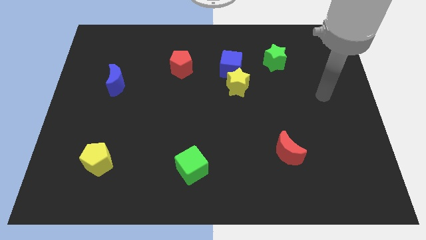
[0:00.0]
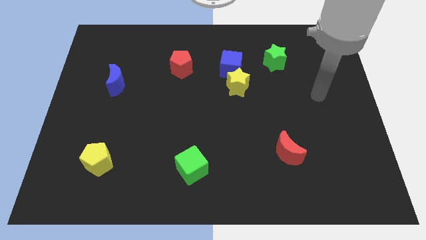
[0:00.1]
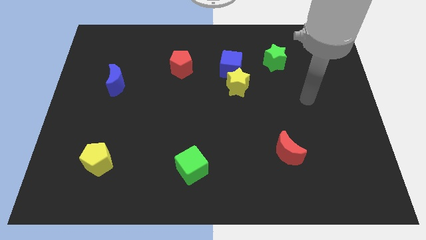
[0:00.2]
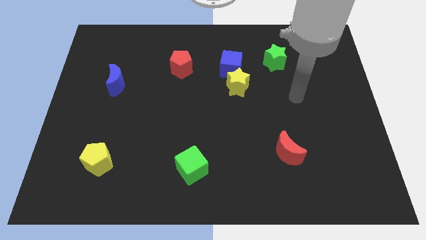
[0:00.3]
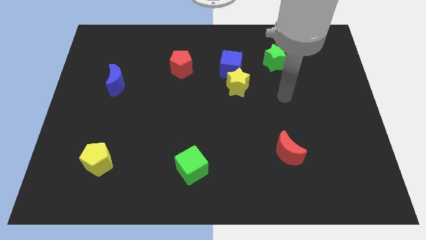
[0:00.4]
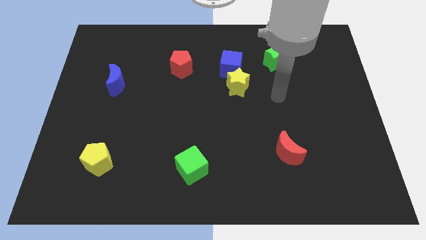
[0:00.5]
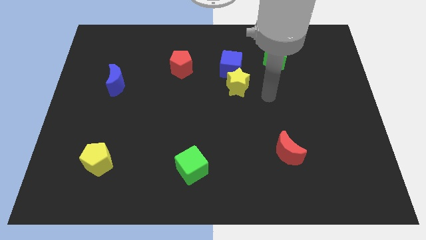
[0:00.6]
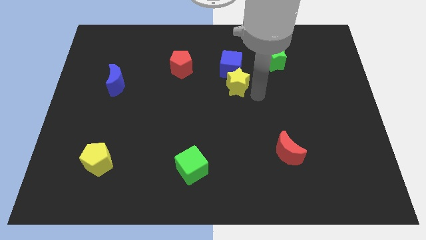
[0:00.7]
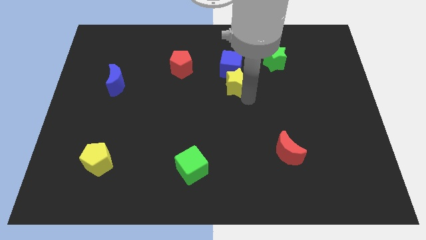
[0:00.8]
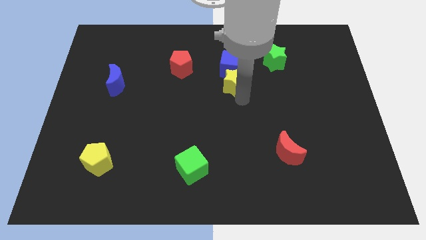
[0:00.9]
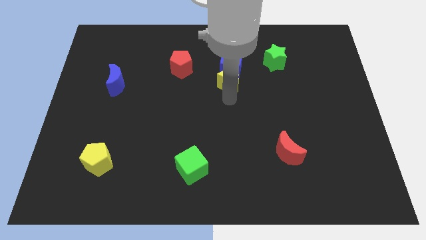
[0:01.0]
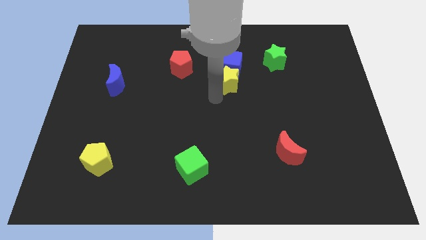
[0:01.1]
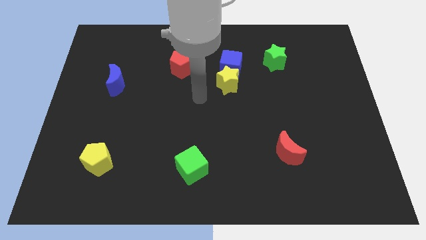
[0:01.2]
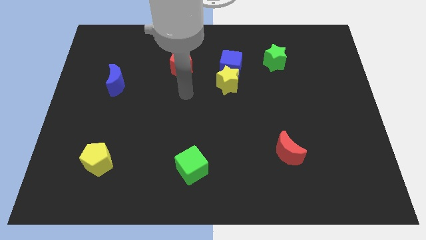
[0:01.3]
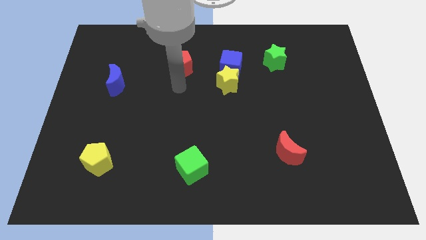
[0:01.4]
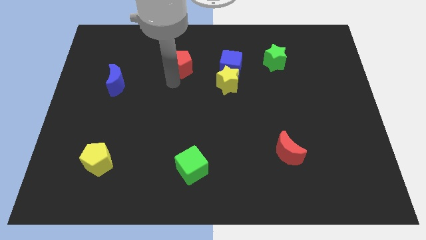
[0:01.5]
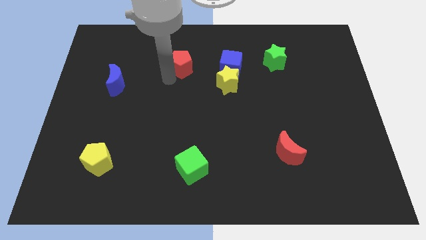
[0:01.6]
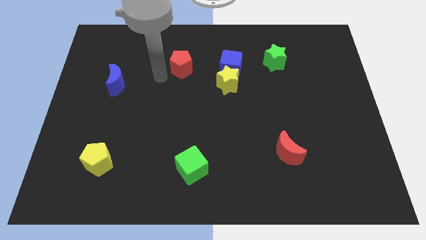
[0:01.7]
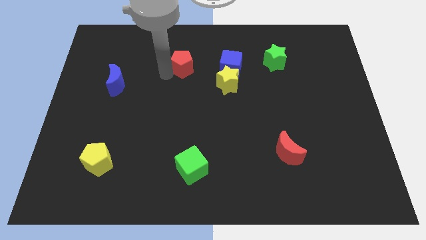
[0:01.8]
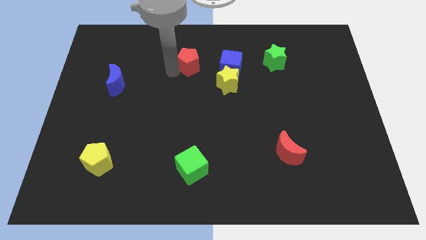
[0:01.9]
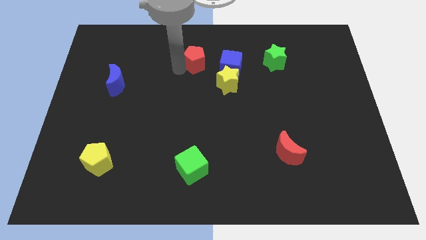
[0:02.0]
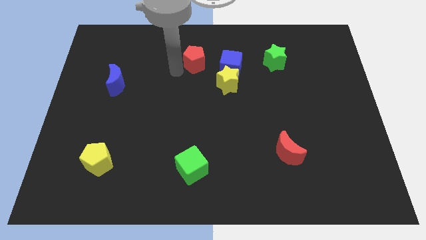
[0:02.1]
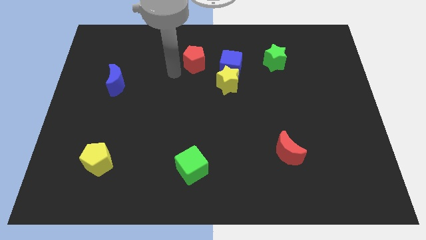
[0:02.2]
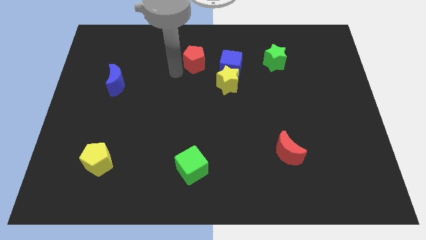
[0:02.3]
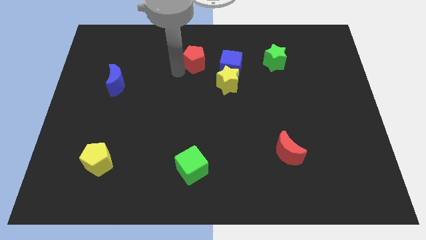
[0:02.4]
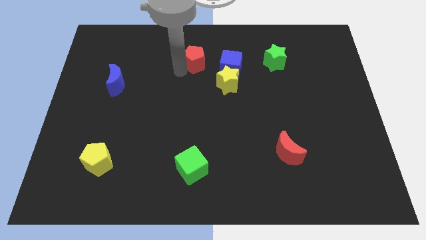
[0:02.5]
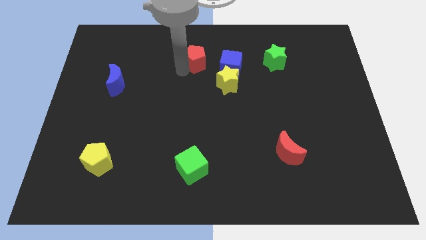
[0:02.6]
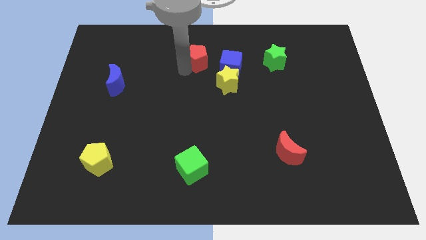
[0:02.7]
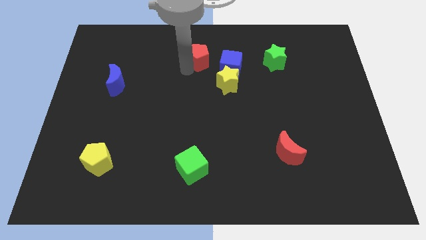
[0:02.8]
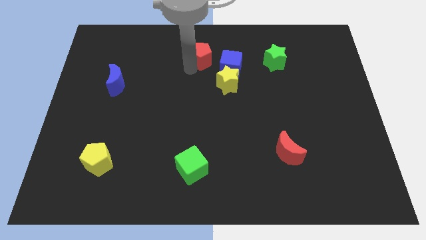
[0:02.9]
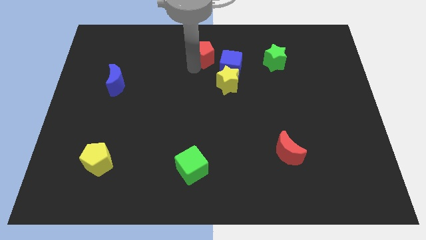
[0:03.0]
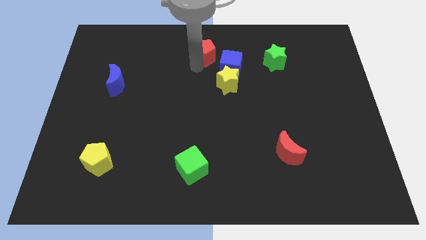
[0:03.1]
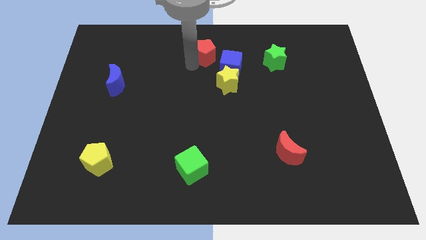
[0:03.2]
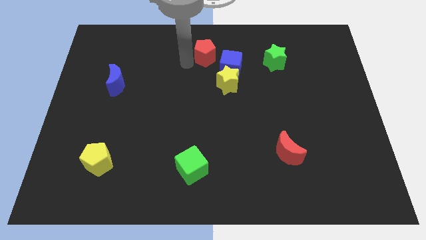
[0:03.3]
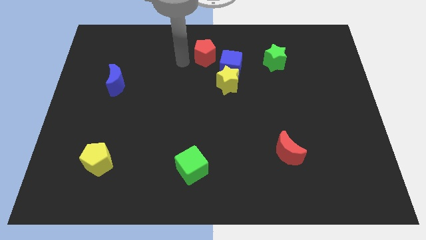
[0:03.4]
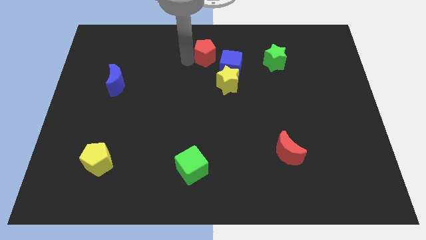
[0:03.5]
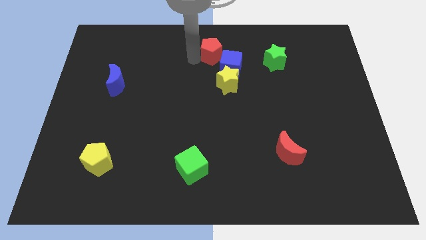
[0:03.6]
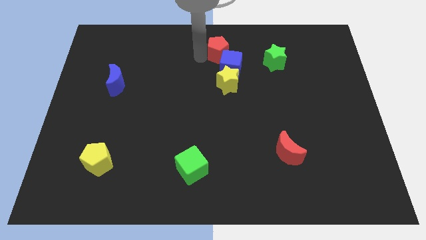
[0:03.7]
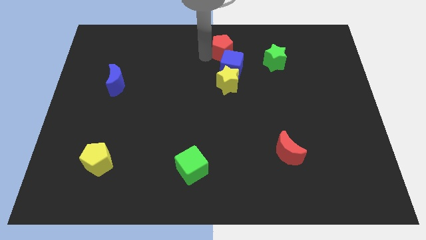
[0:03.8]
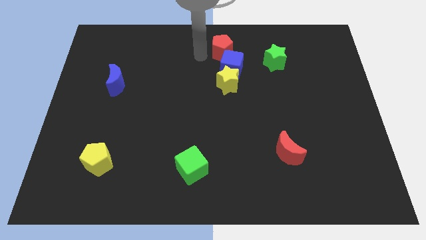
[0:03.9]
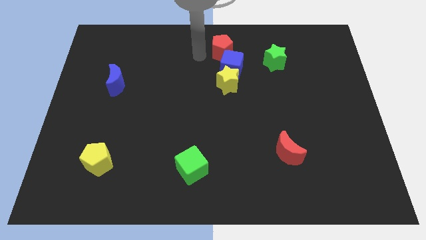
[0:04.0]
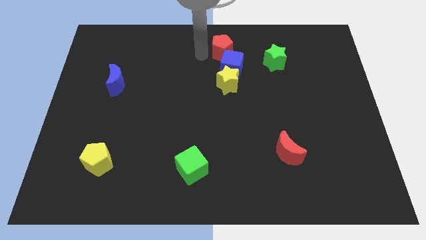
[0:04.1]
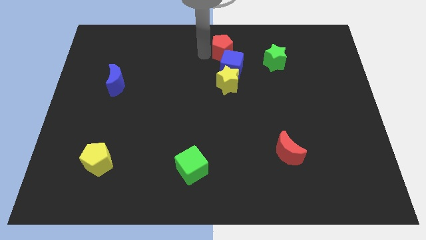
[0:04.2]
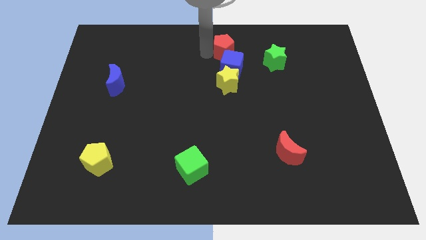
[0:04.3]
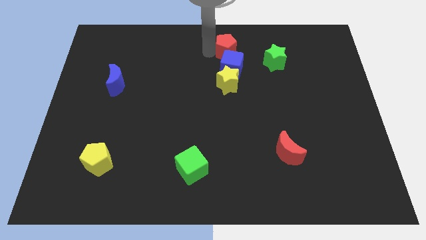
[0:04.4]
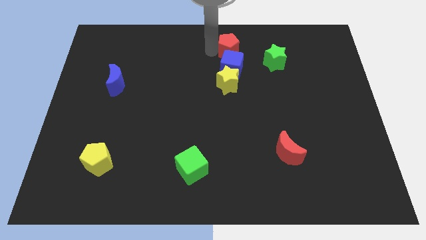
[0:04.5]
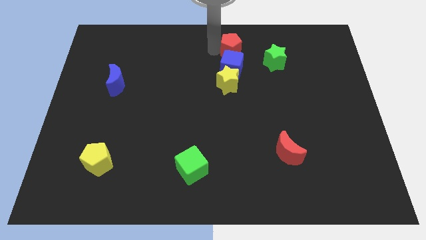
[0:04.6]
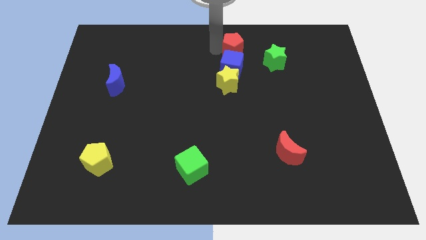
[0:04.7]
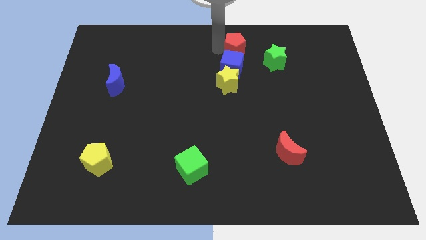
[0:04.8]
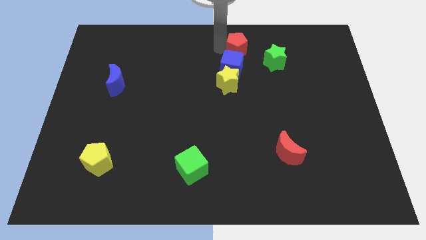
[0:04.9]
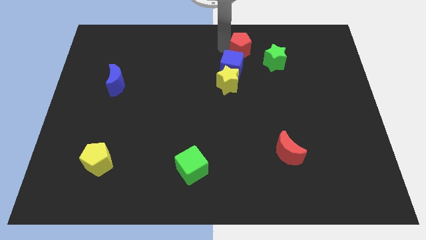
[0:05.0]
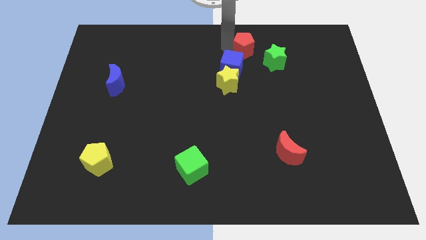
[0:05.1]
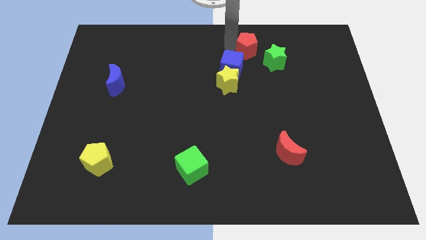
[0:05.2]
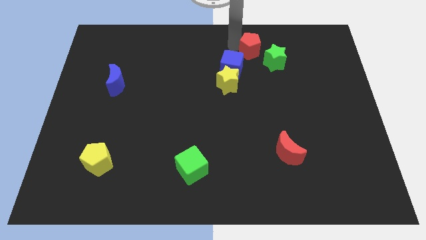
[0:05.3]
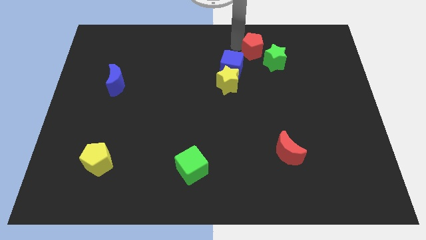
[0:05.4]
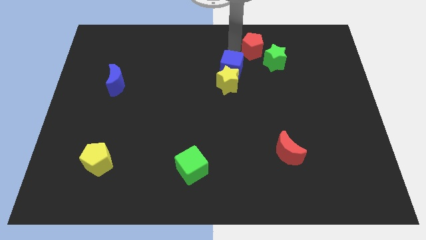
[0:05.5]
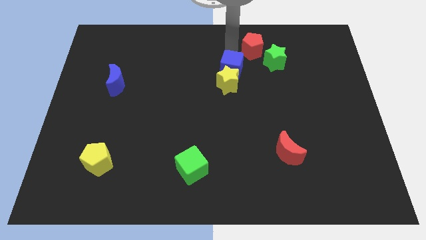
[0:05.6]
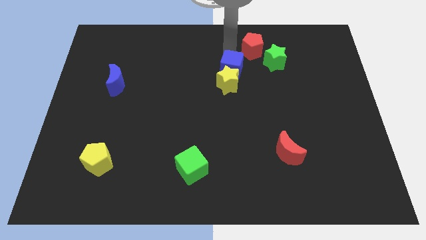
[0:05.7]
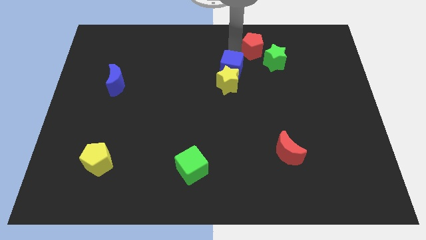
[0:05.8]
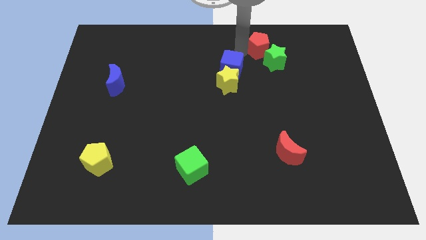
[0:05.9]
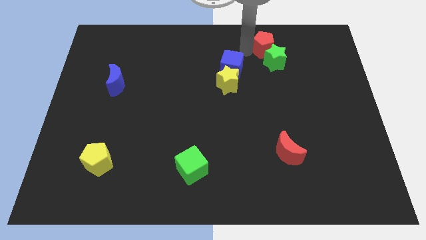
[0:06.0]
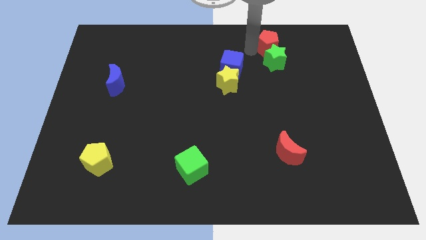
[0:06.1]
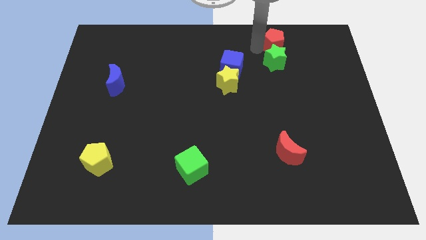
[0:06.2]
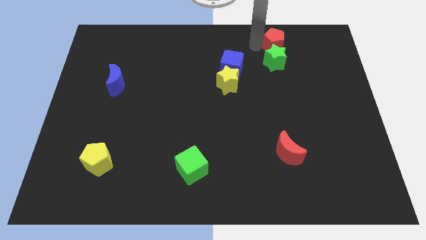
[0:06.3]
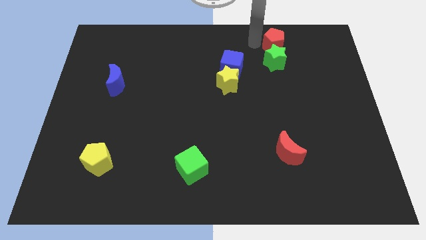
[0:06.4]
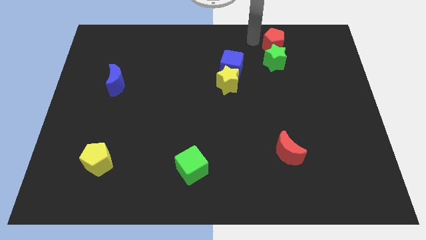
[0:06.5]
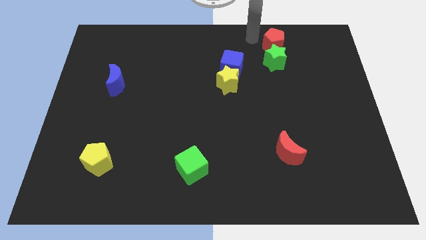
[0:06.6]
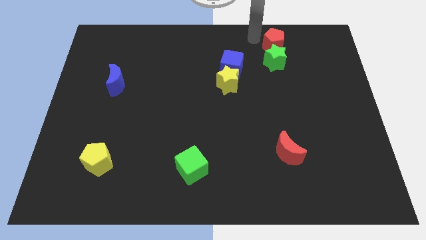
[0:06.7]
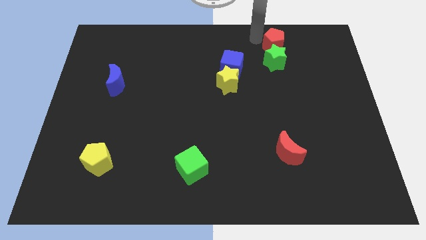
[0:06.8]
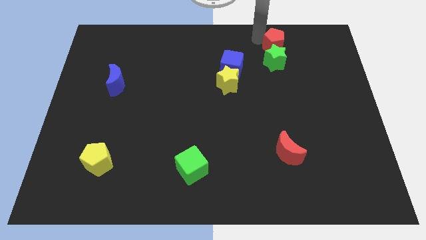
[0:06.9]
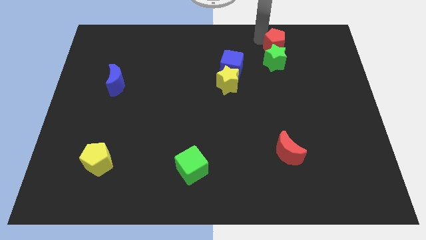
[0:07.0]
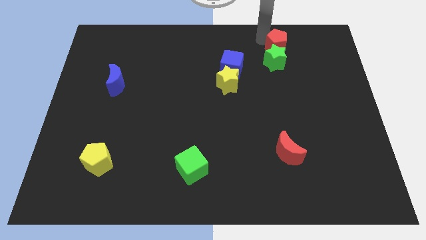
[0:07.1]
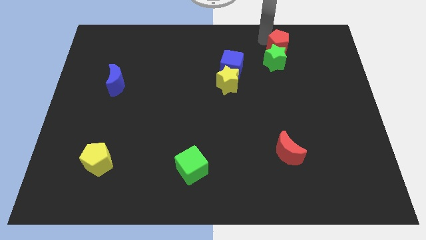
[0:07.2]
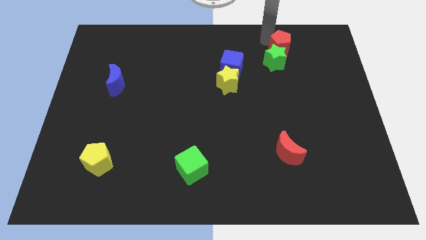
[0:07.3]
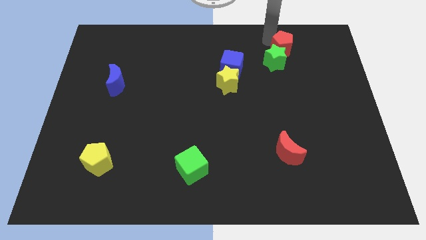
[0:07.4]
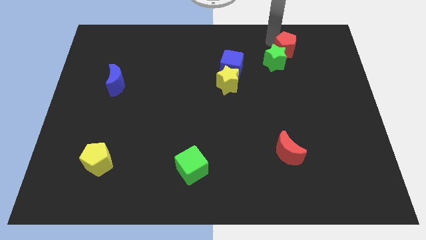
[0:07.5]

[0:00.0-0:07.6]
push the red pentagon just right of the green star

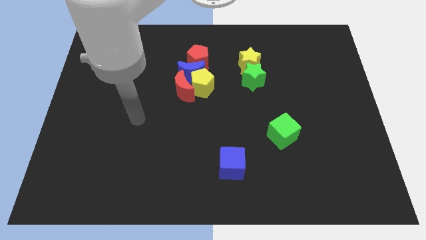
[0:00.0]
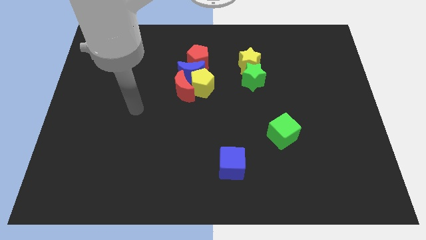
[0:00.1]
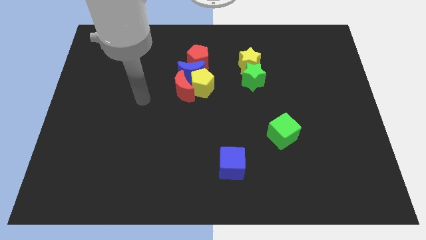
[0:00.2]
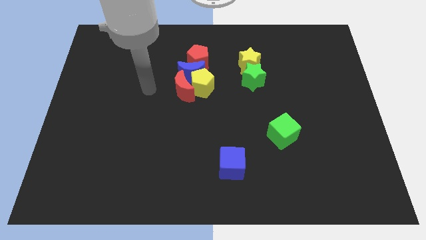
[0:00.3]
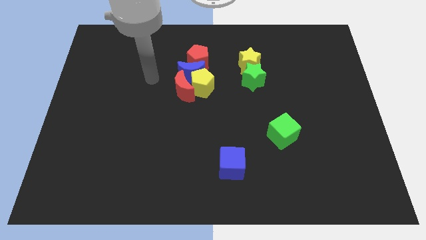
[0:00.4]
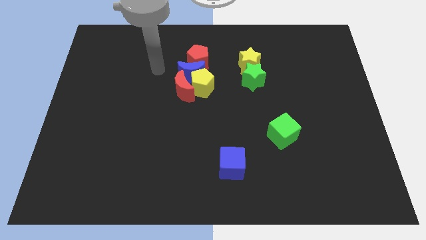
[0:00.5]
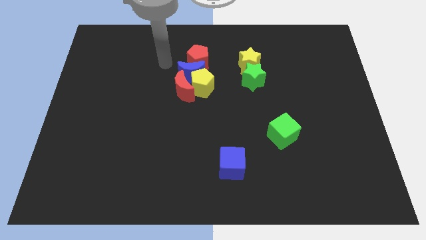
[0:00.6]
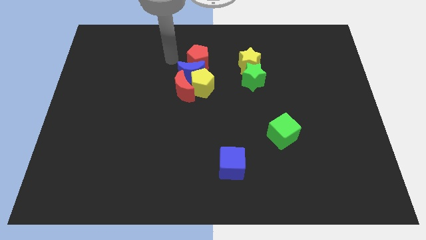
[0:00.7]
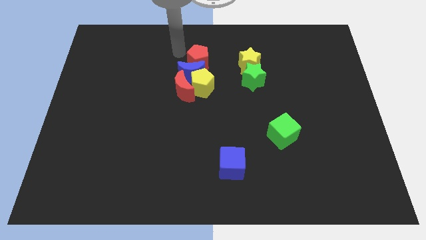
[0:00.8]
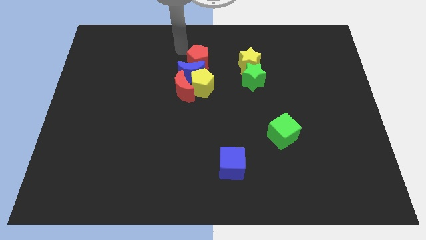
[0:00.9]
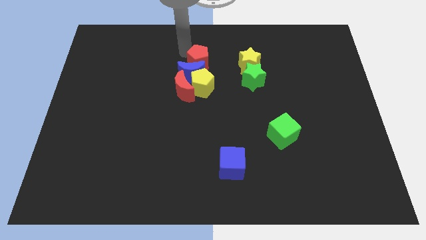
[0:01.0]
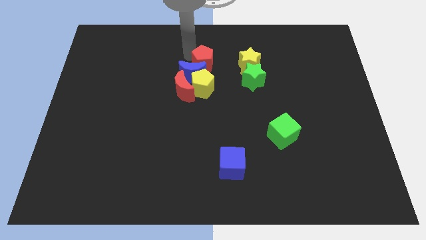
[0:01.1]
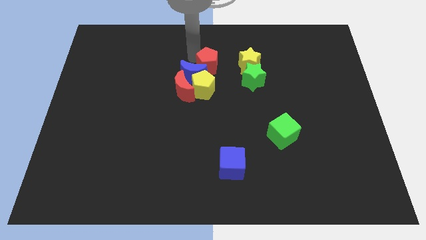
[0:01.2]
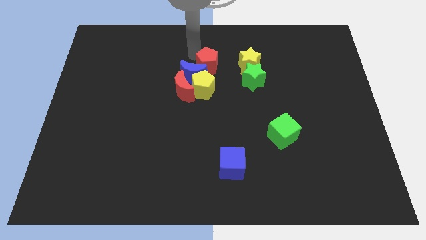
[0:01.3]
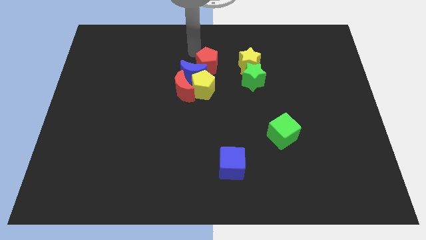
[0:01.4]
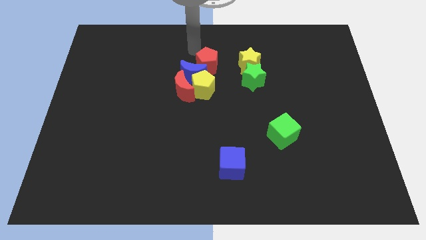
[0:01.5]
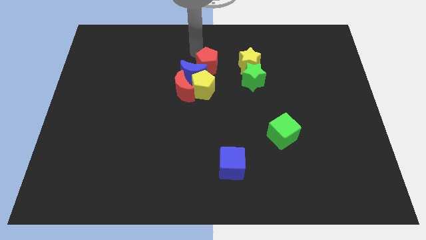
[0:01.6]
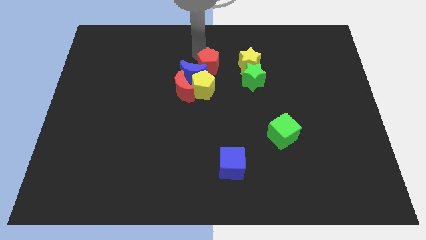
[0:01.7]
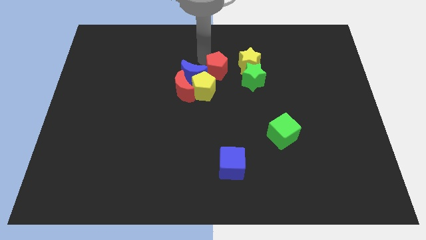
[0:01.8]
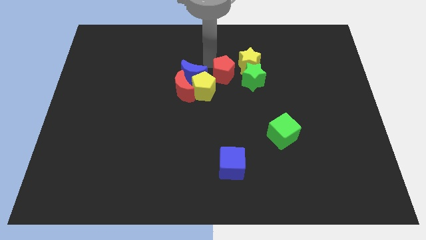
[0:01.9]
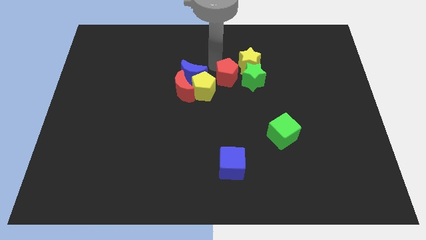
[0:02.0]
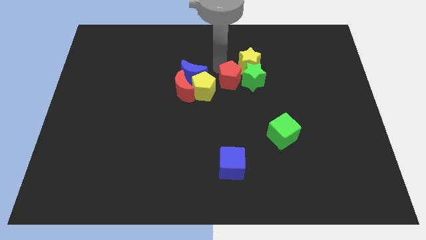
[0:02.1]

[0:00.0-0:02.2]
move the red pentagon below the yellow star
